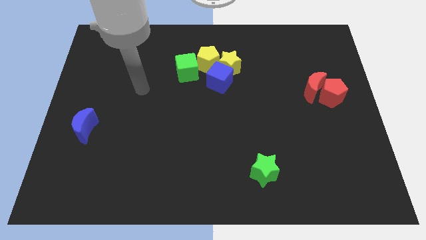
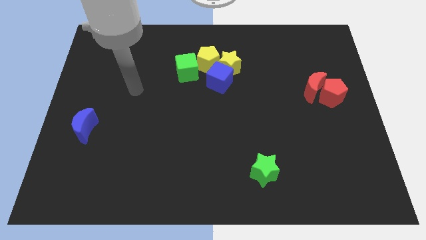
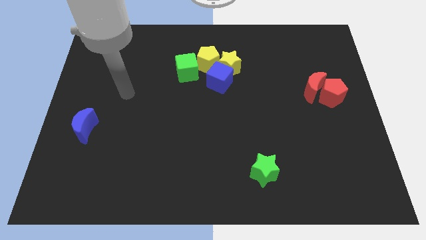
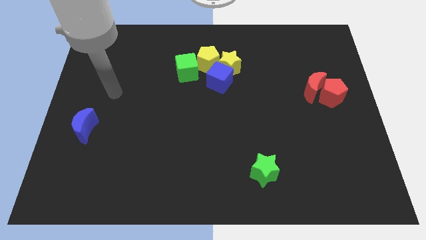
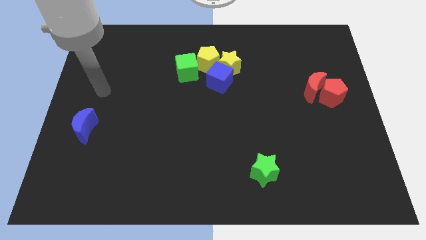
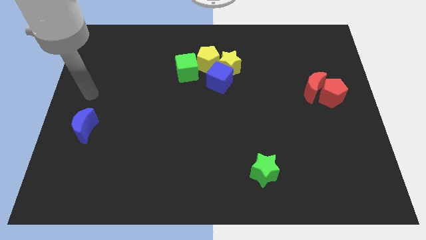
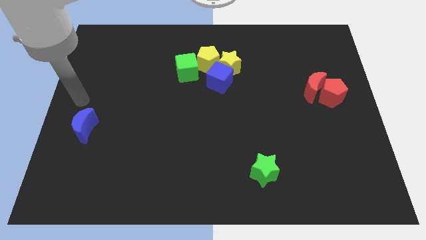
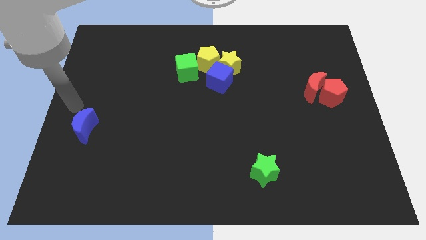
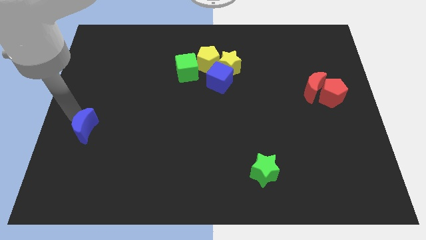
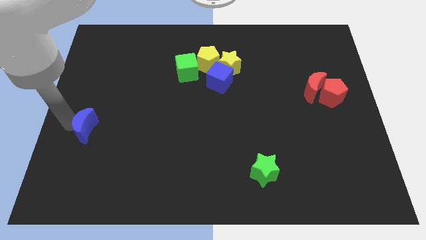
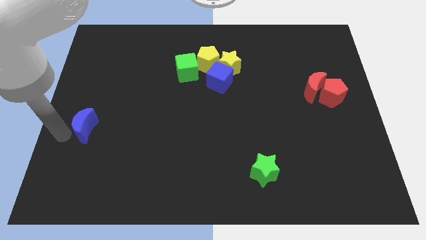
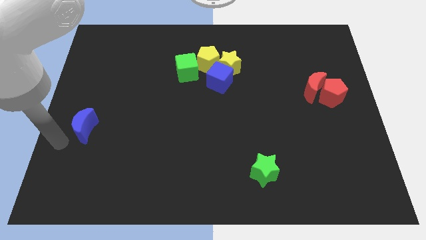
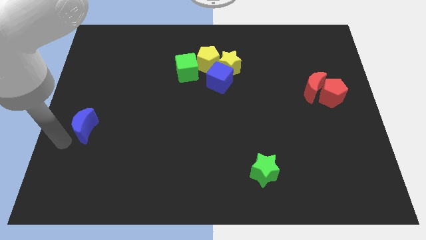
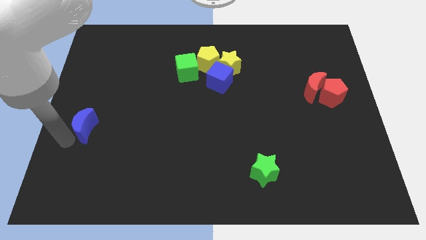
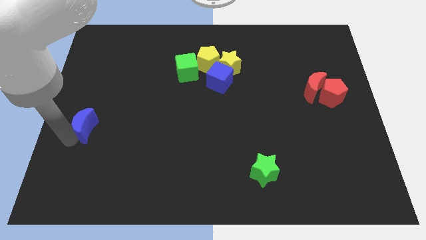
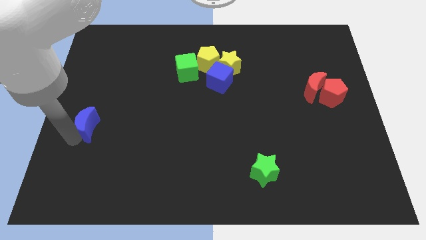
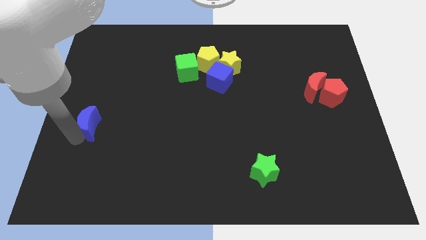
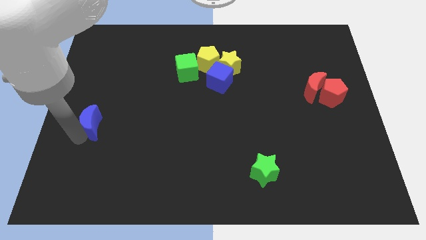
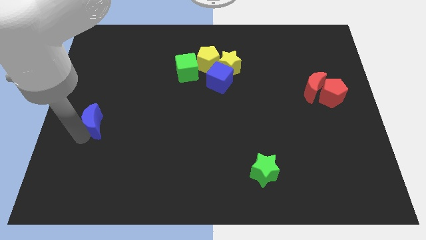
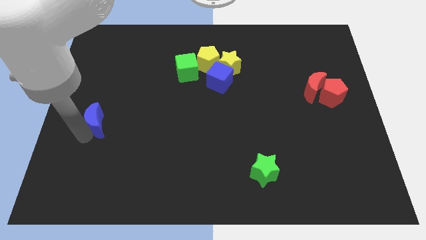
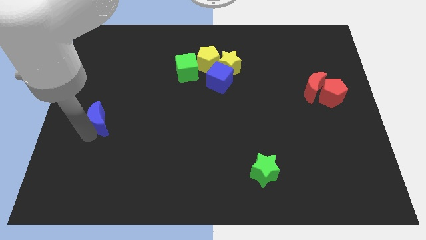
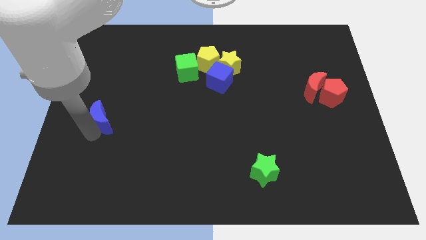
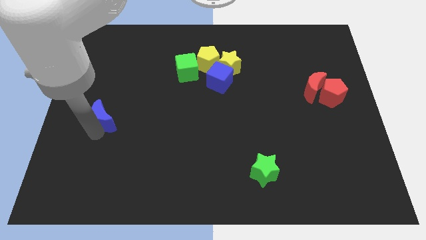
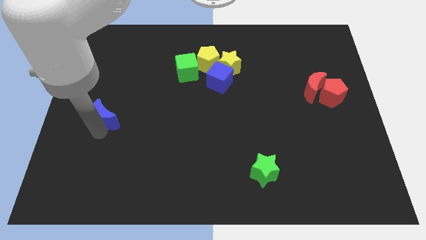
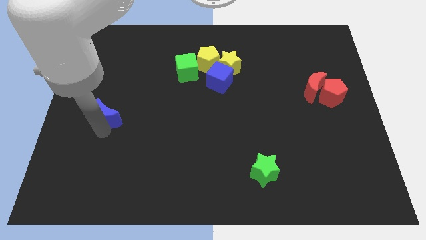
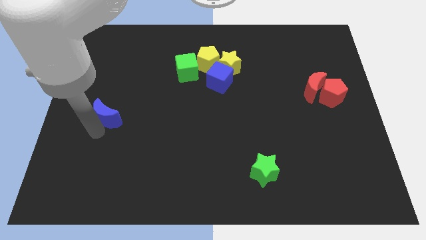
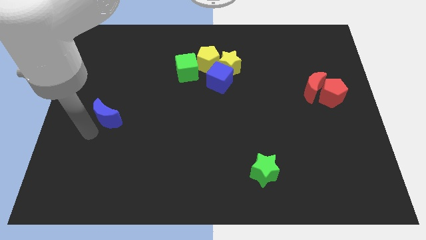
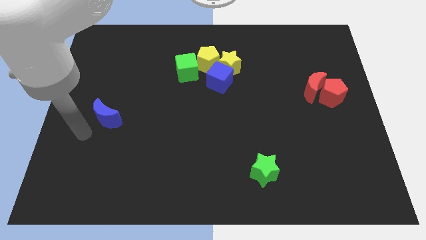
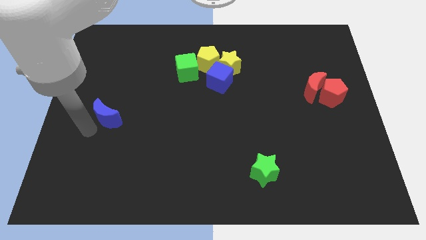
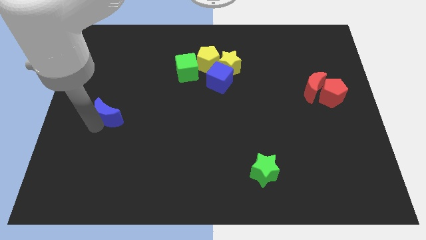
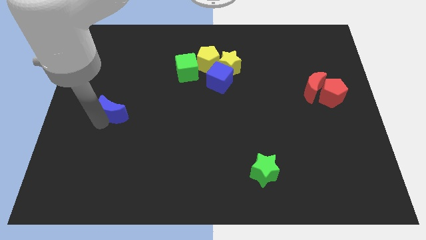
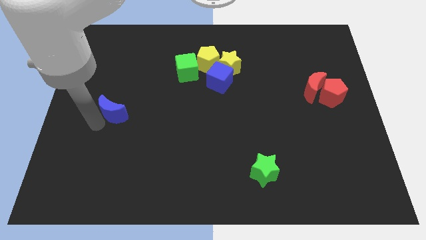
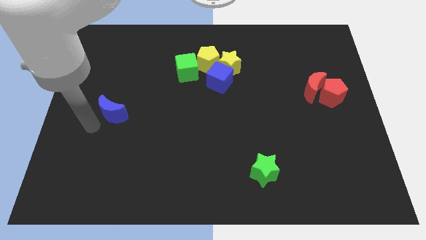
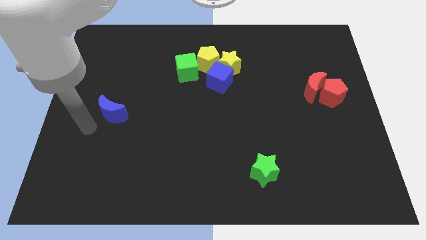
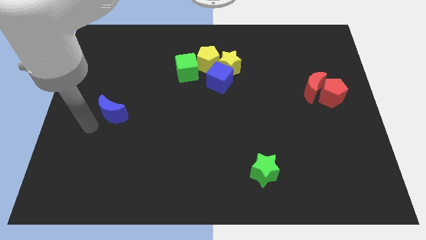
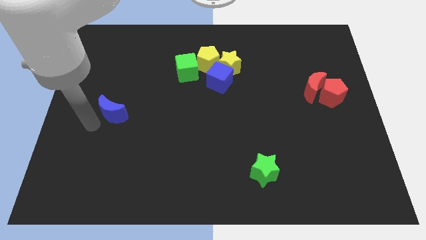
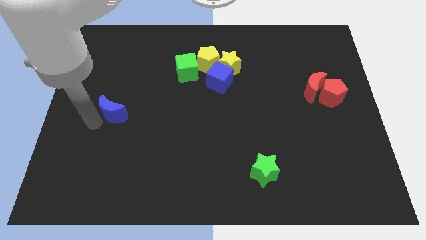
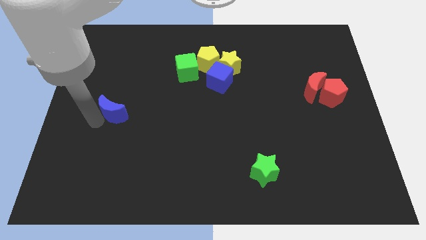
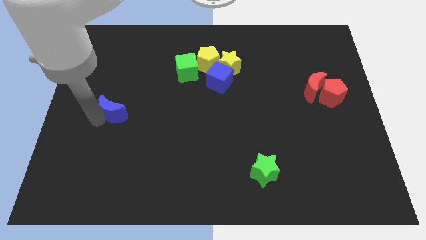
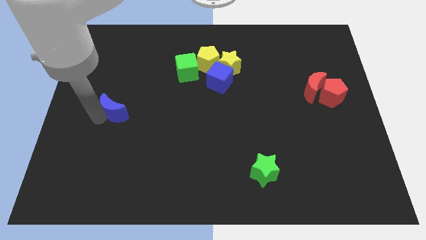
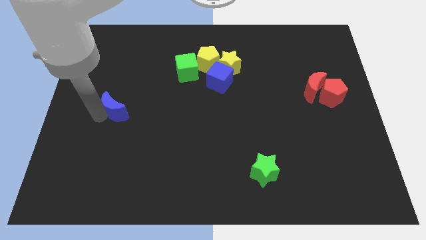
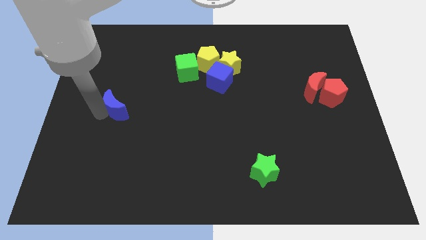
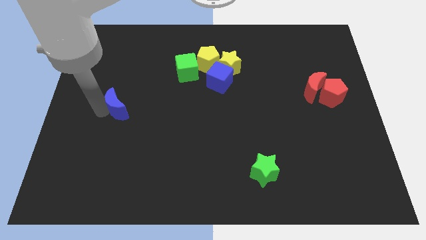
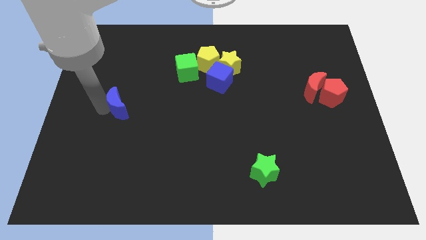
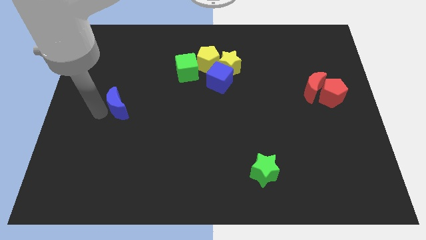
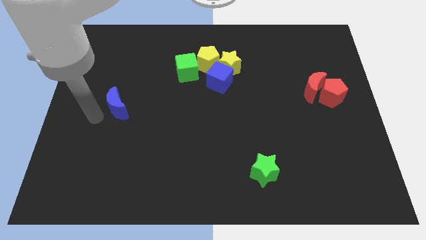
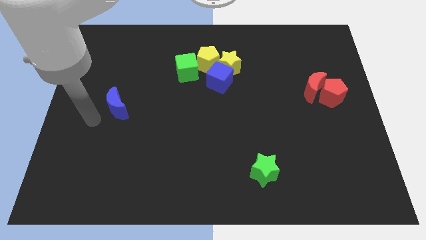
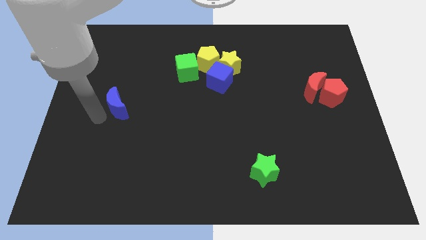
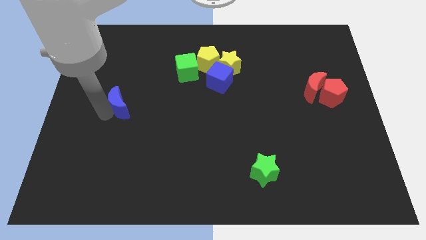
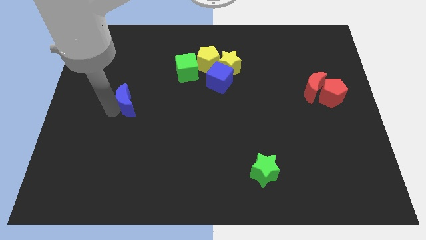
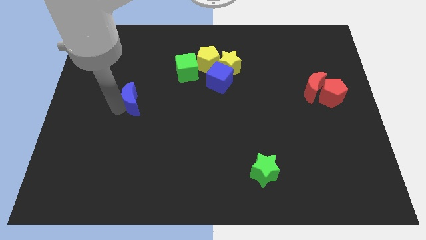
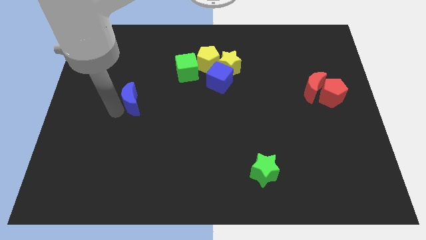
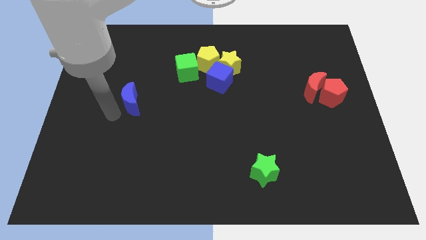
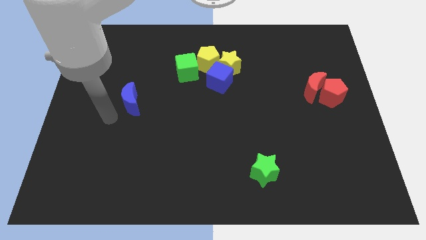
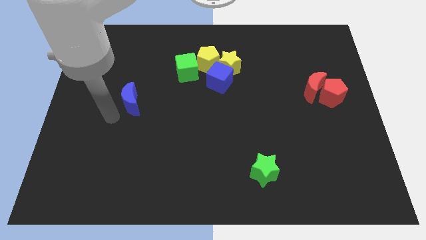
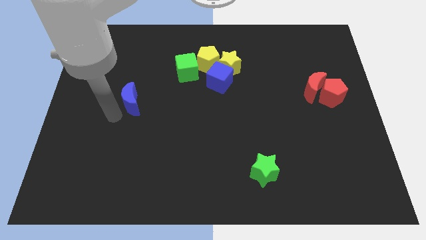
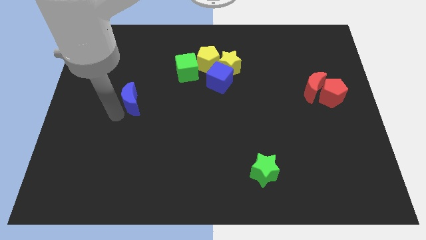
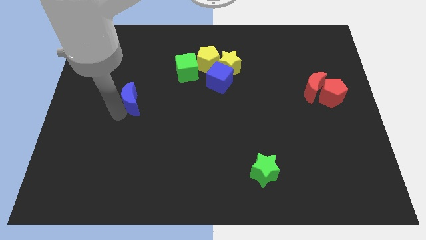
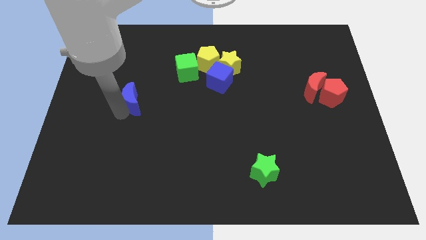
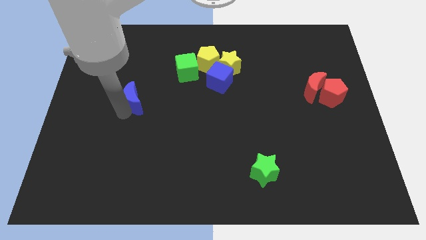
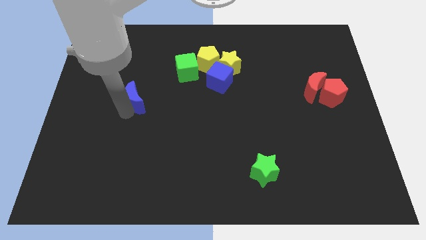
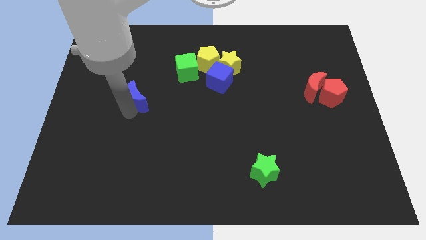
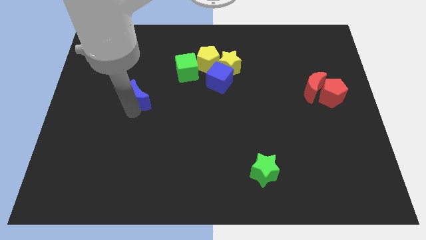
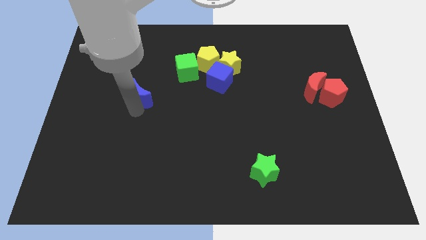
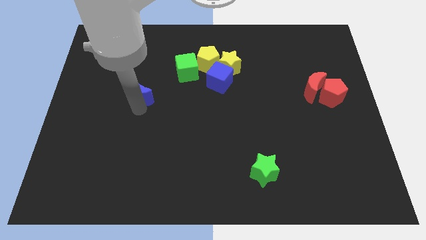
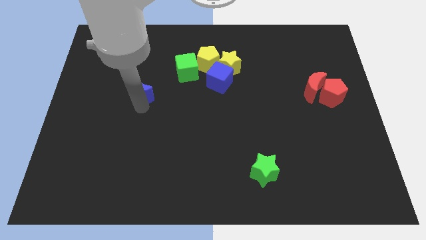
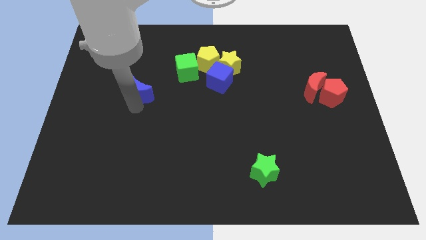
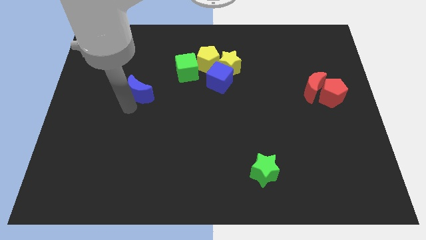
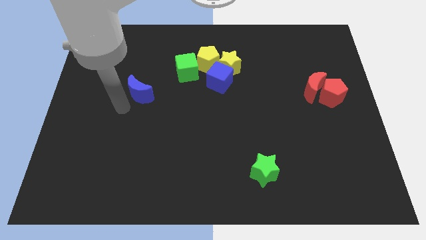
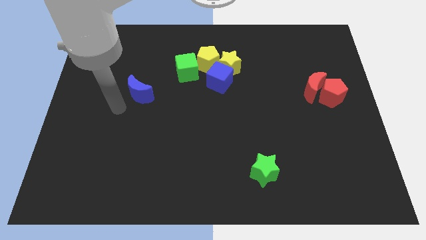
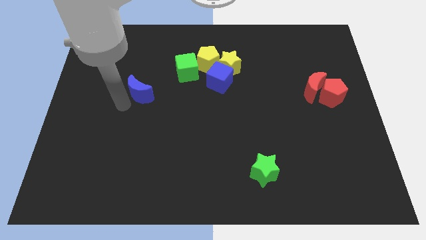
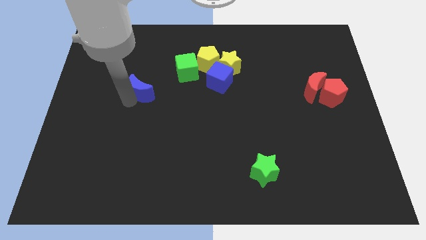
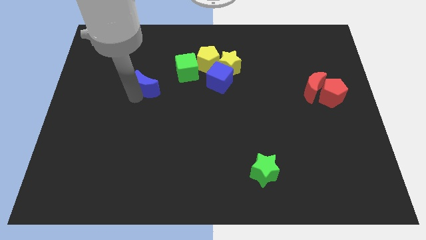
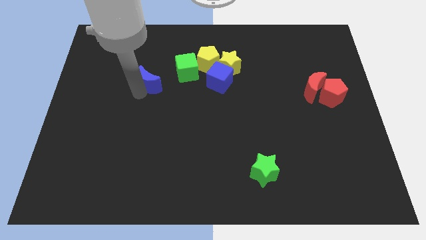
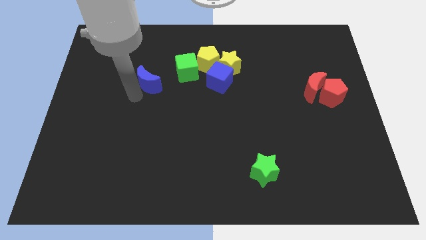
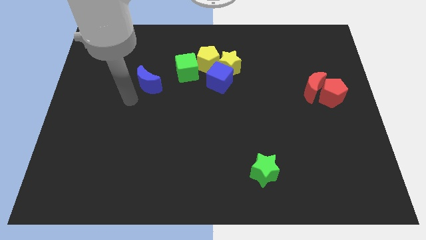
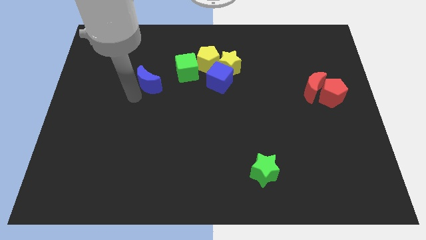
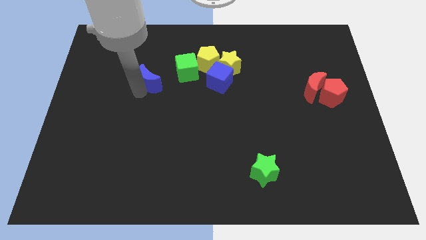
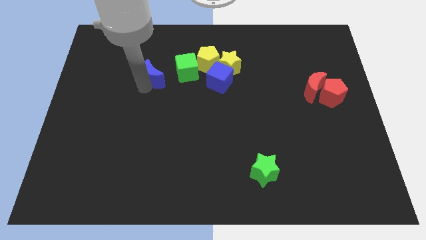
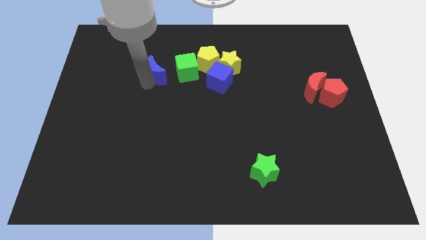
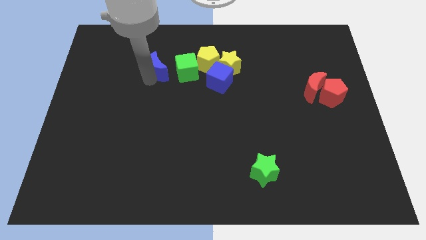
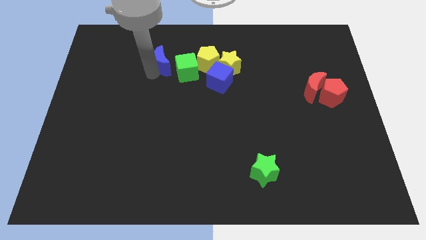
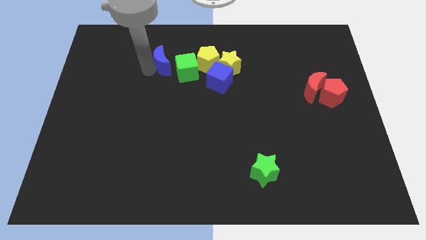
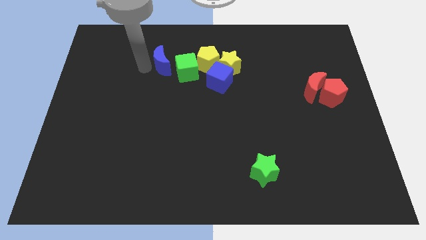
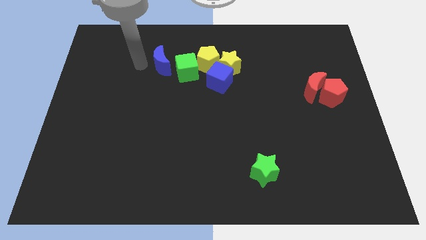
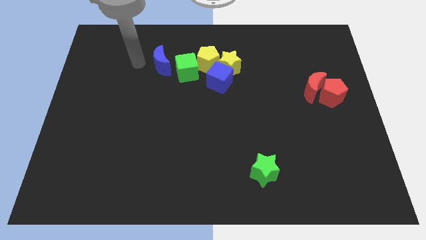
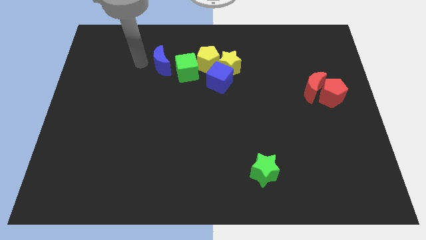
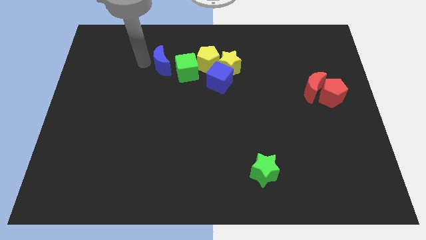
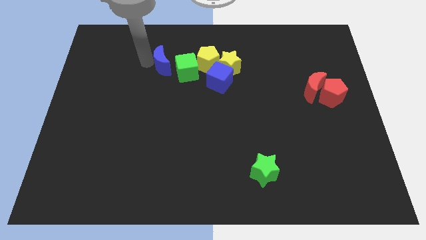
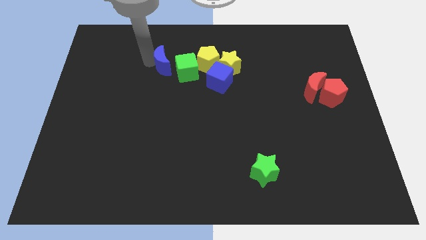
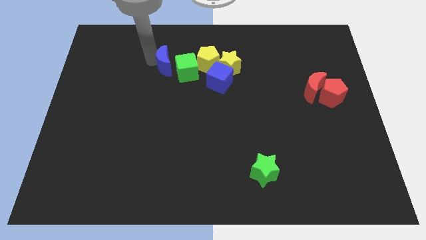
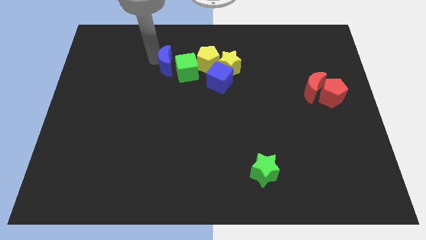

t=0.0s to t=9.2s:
move the blue moon left of the yellow star
